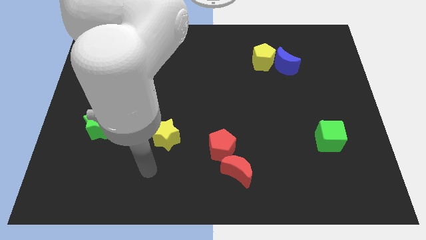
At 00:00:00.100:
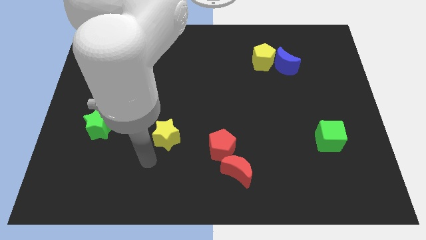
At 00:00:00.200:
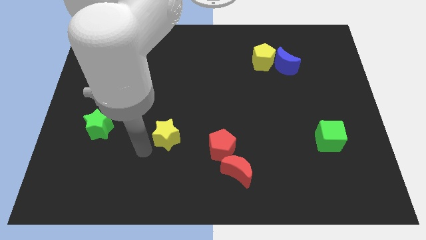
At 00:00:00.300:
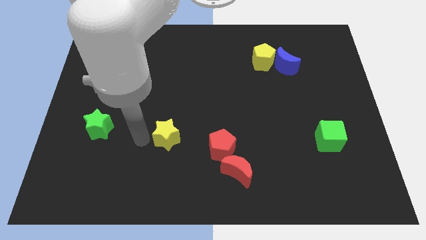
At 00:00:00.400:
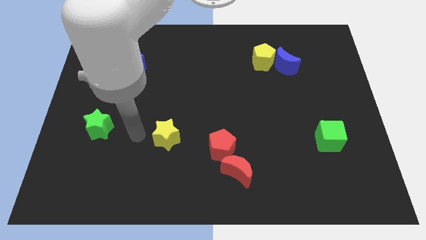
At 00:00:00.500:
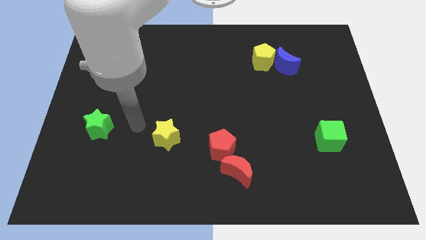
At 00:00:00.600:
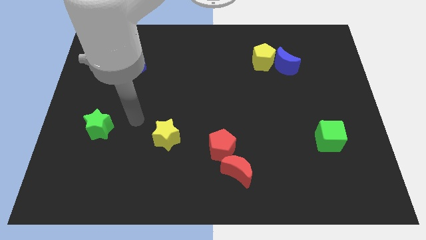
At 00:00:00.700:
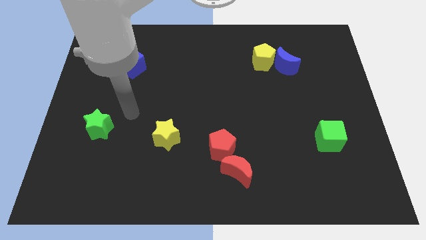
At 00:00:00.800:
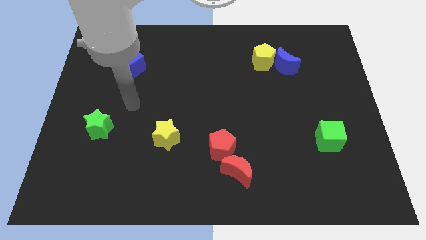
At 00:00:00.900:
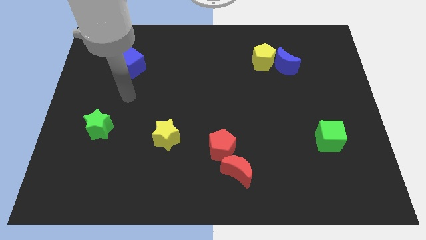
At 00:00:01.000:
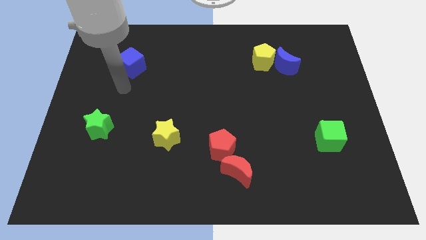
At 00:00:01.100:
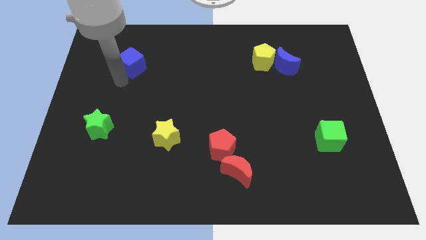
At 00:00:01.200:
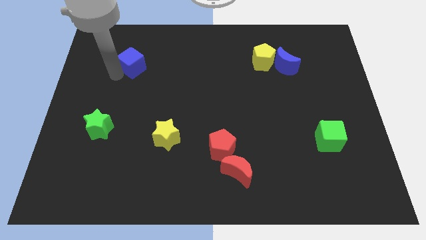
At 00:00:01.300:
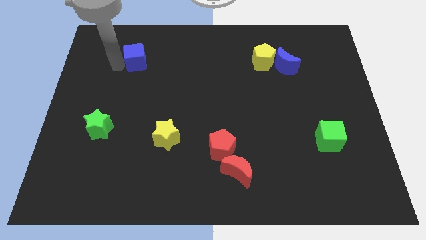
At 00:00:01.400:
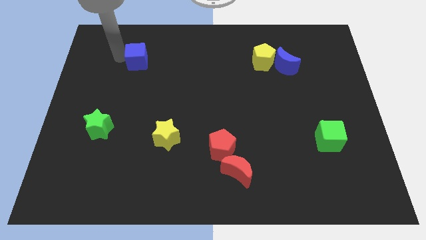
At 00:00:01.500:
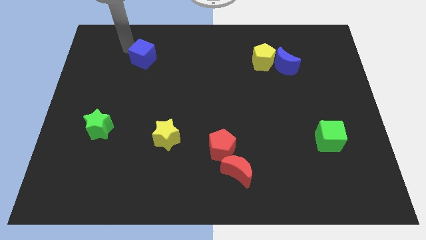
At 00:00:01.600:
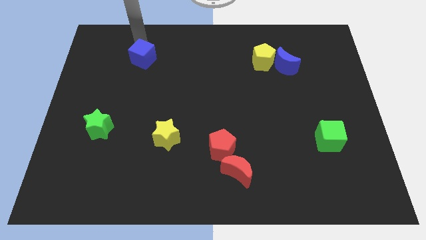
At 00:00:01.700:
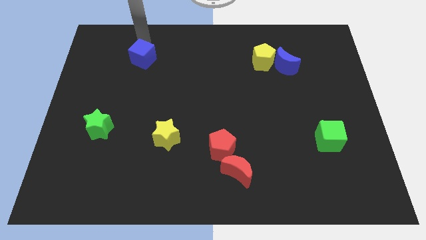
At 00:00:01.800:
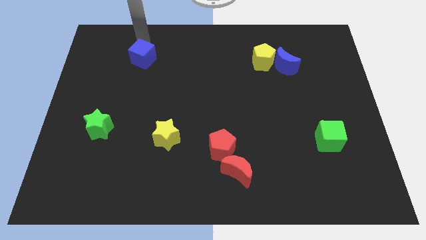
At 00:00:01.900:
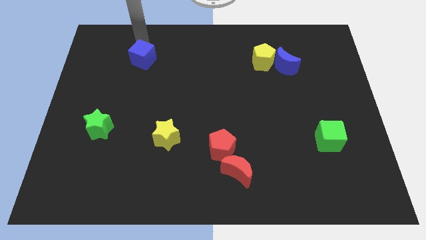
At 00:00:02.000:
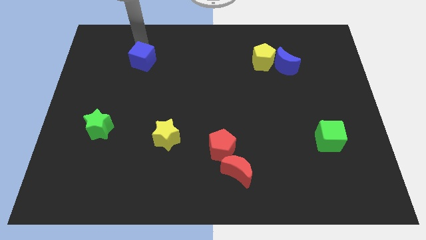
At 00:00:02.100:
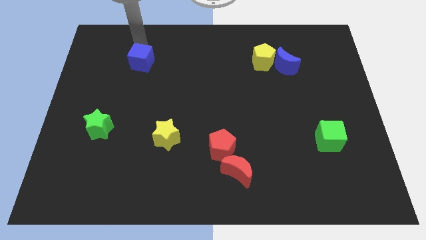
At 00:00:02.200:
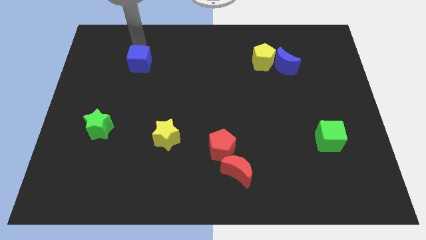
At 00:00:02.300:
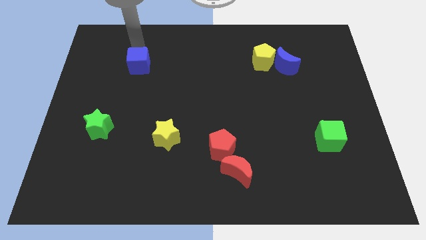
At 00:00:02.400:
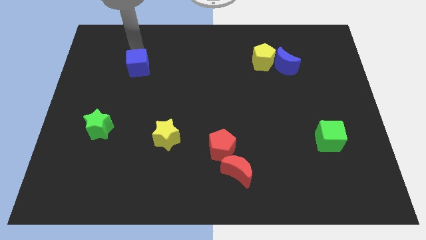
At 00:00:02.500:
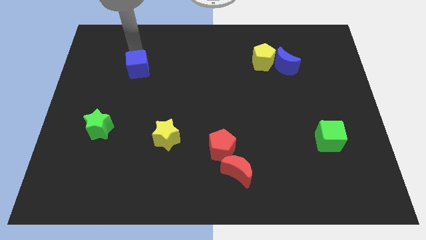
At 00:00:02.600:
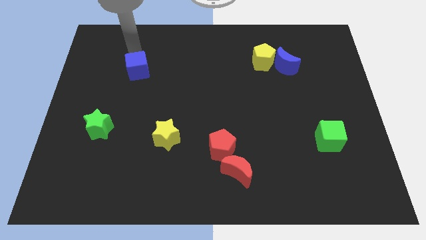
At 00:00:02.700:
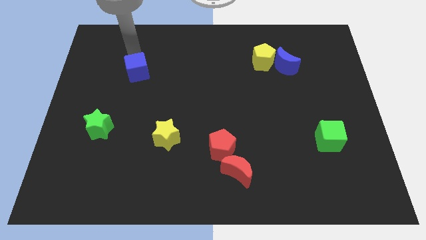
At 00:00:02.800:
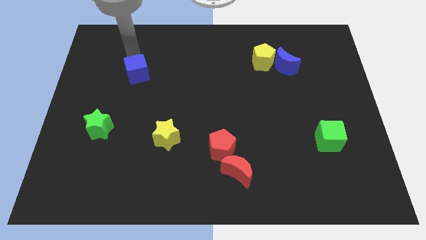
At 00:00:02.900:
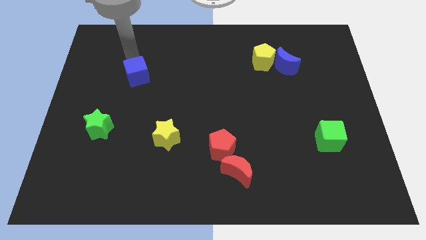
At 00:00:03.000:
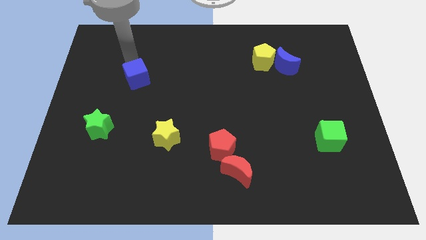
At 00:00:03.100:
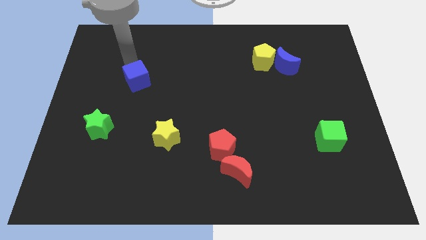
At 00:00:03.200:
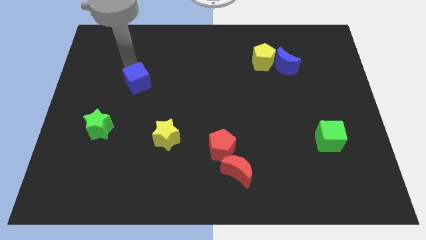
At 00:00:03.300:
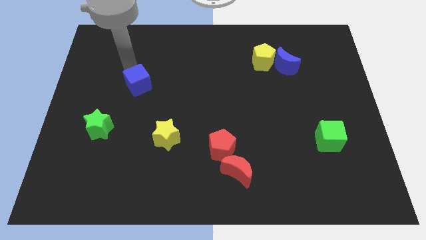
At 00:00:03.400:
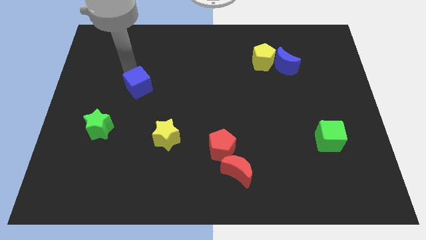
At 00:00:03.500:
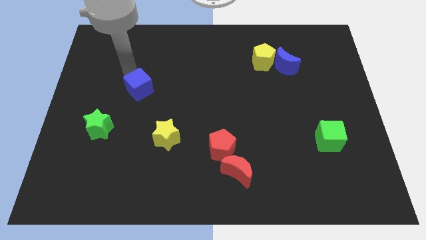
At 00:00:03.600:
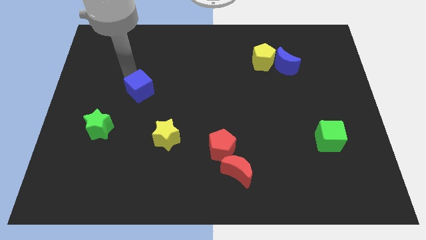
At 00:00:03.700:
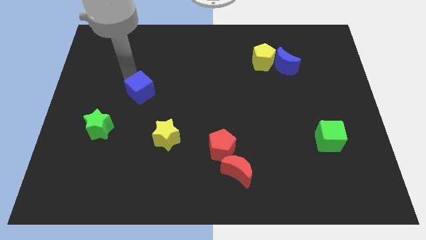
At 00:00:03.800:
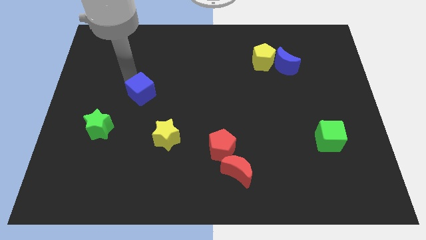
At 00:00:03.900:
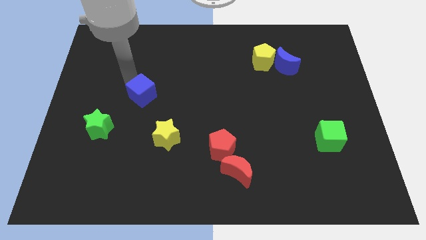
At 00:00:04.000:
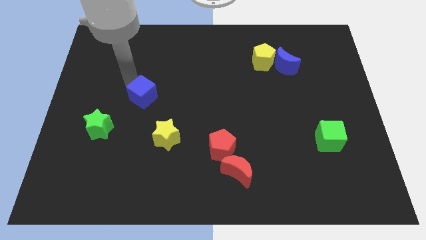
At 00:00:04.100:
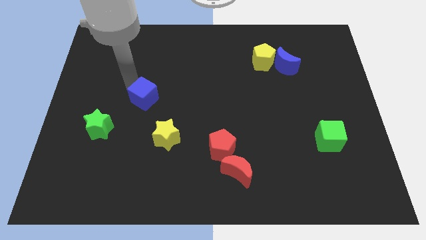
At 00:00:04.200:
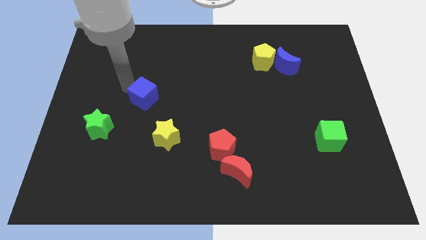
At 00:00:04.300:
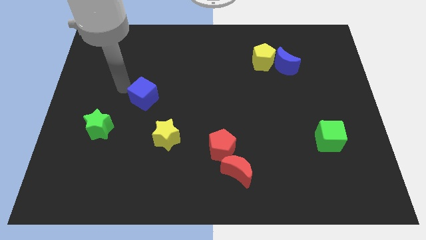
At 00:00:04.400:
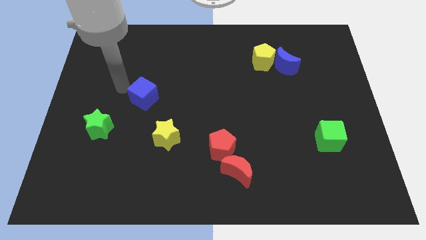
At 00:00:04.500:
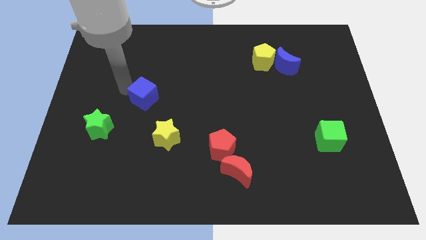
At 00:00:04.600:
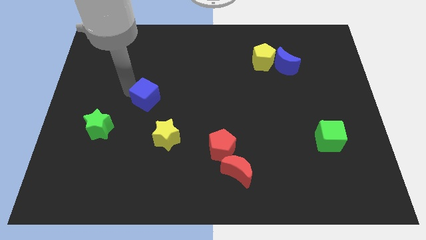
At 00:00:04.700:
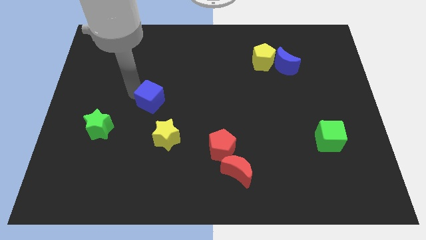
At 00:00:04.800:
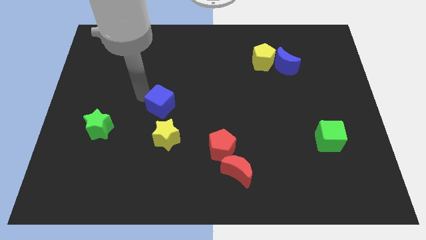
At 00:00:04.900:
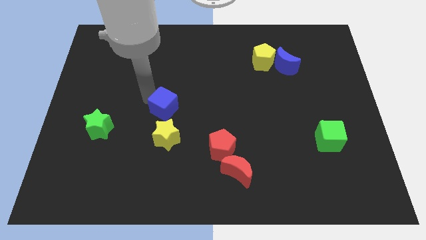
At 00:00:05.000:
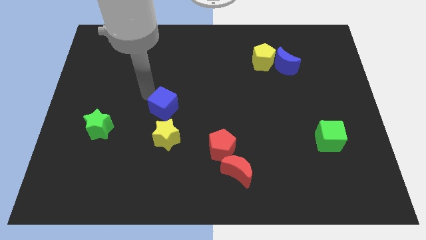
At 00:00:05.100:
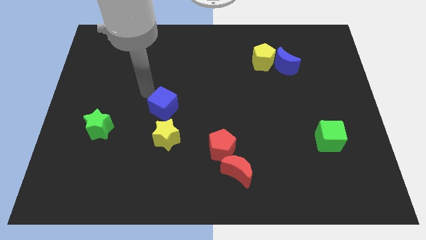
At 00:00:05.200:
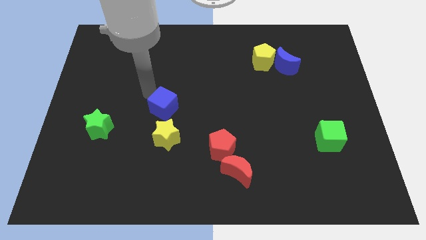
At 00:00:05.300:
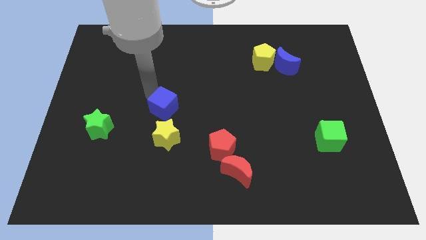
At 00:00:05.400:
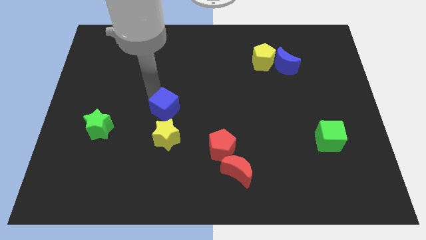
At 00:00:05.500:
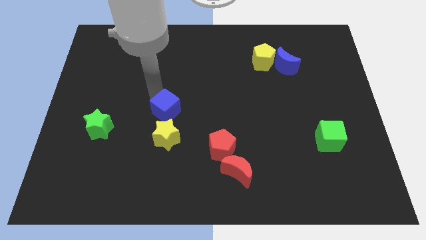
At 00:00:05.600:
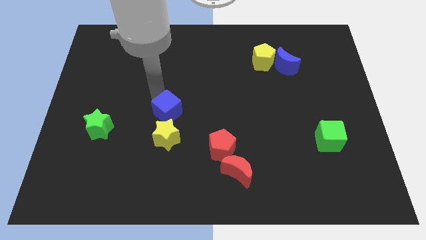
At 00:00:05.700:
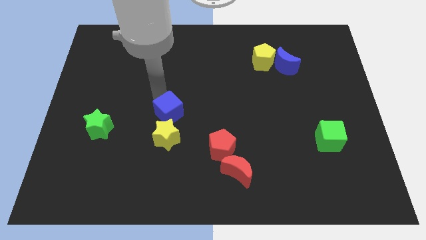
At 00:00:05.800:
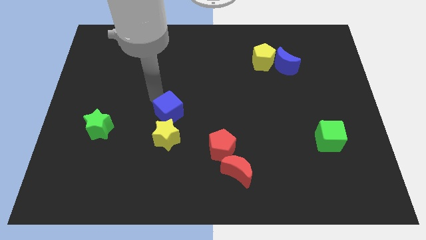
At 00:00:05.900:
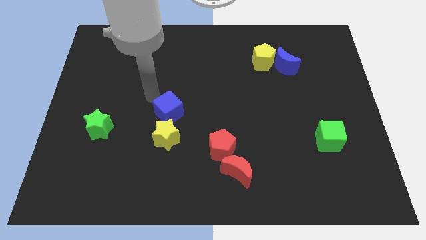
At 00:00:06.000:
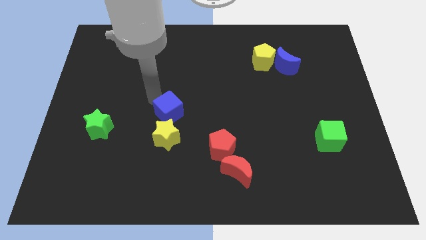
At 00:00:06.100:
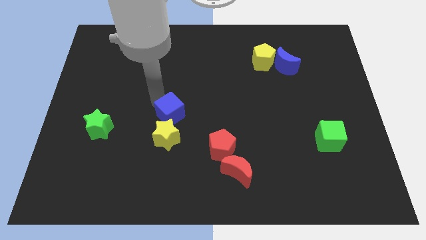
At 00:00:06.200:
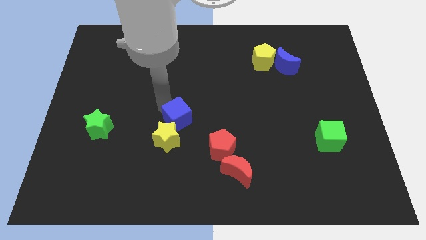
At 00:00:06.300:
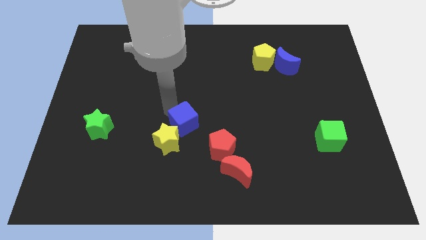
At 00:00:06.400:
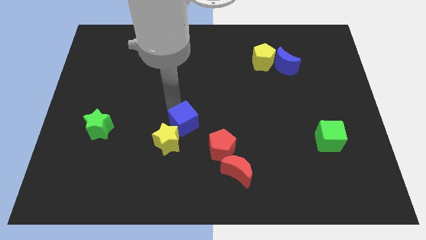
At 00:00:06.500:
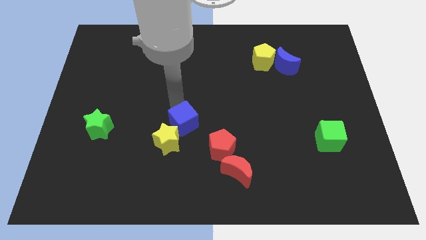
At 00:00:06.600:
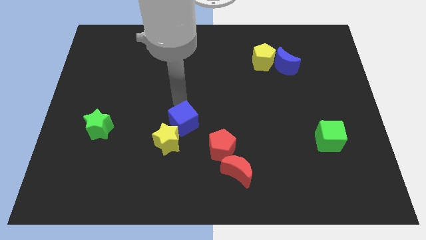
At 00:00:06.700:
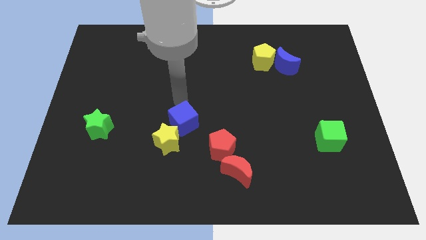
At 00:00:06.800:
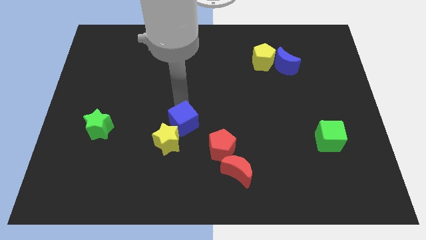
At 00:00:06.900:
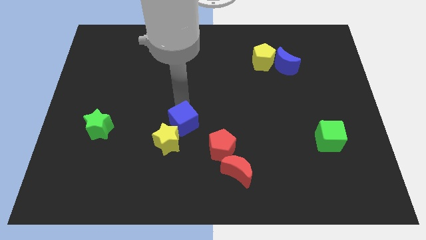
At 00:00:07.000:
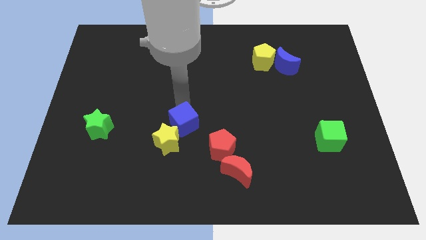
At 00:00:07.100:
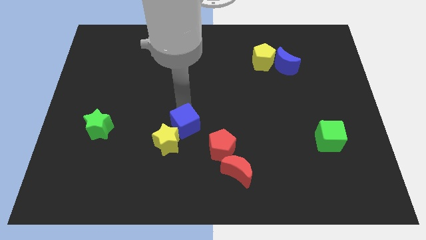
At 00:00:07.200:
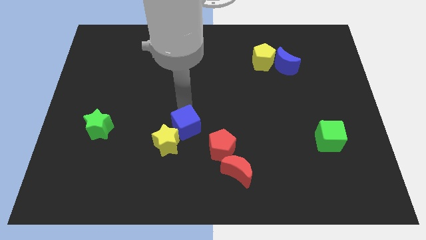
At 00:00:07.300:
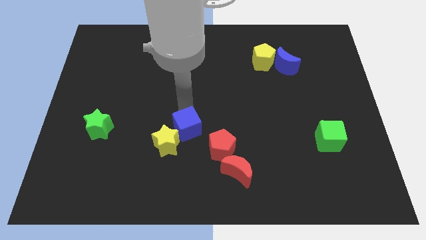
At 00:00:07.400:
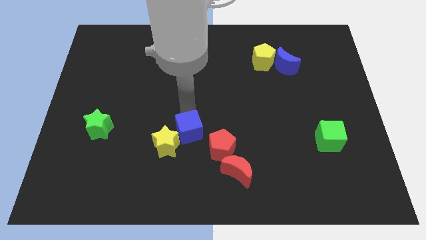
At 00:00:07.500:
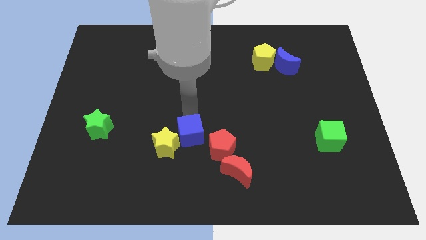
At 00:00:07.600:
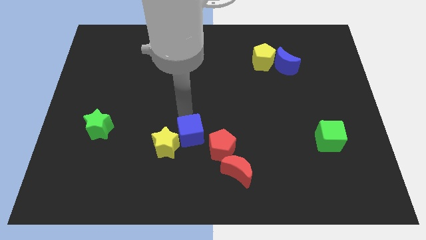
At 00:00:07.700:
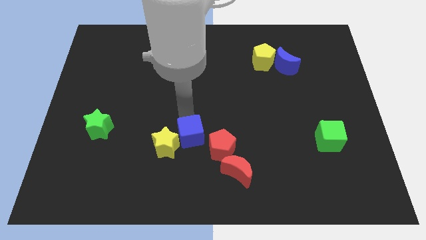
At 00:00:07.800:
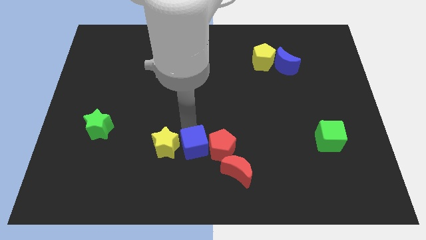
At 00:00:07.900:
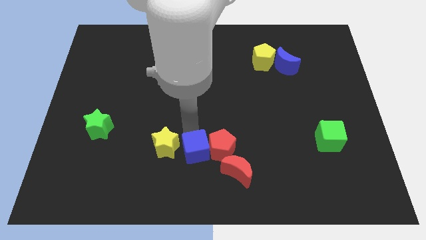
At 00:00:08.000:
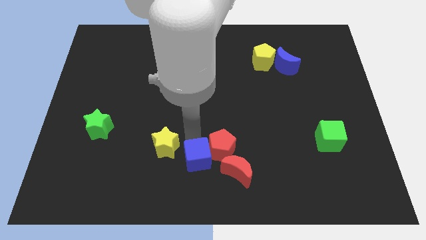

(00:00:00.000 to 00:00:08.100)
push the blue cube to the bottom side
